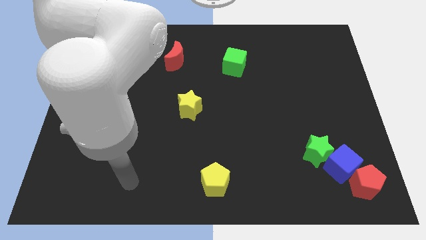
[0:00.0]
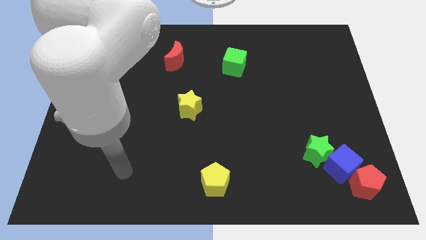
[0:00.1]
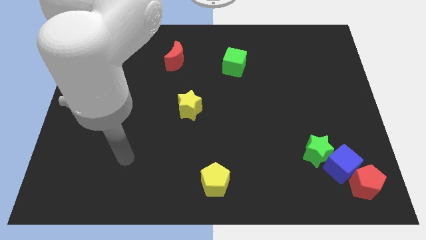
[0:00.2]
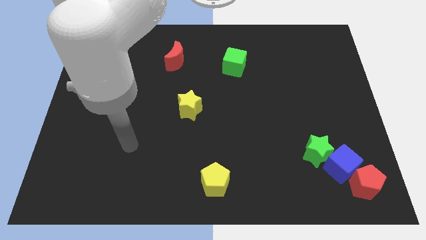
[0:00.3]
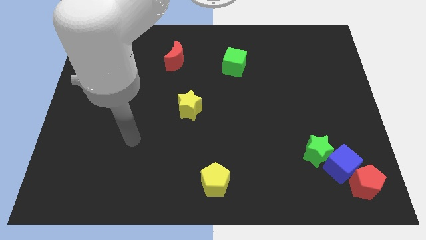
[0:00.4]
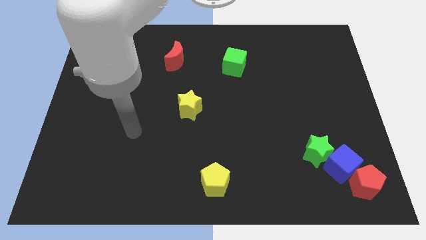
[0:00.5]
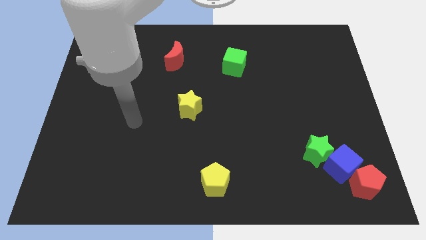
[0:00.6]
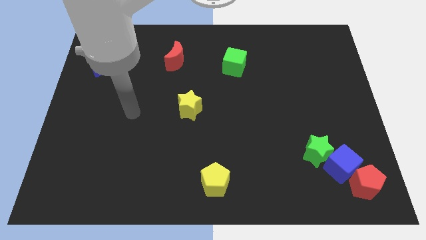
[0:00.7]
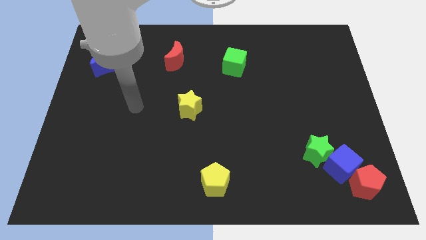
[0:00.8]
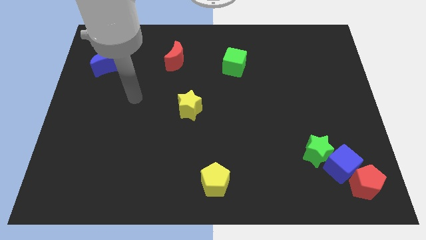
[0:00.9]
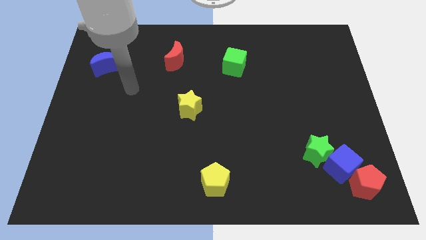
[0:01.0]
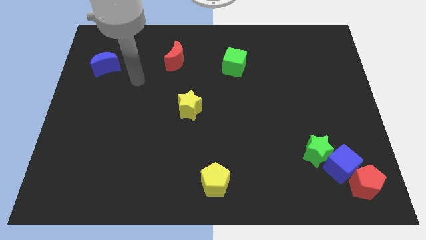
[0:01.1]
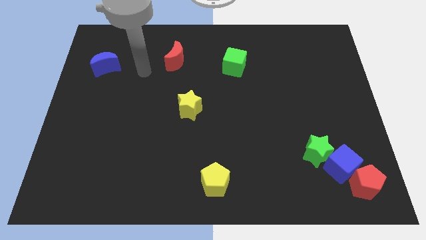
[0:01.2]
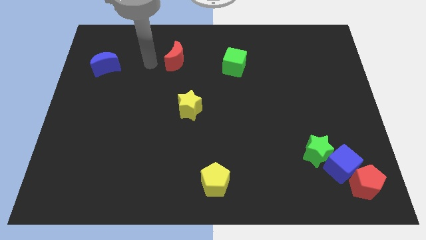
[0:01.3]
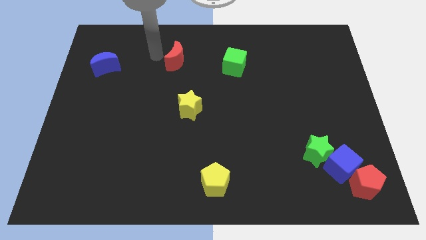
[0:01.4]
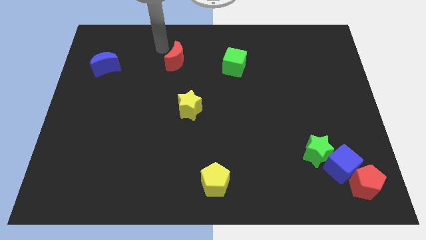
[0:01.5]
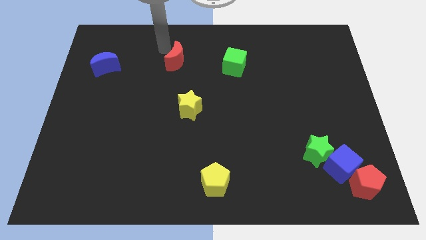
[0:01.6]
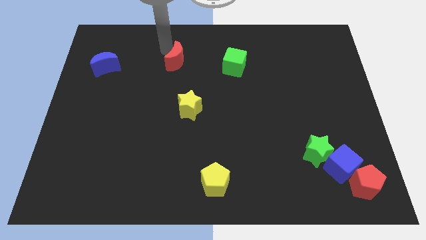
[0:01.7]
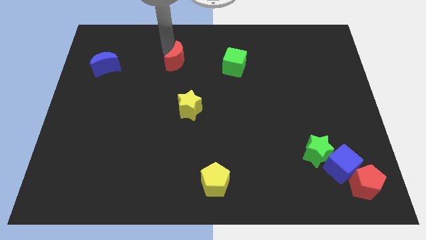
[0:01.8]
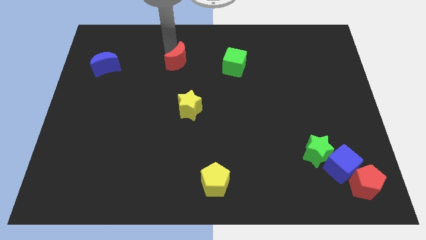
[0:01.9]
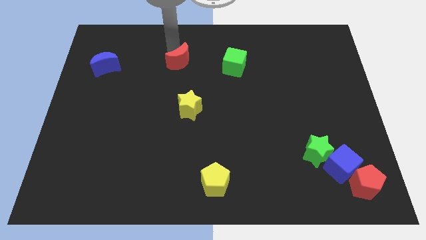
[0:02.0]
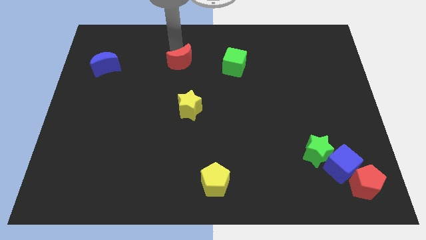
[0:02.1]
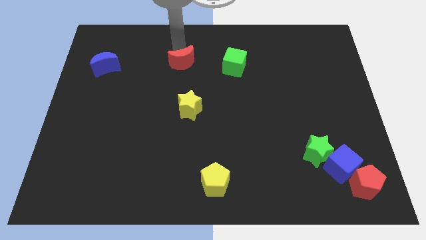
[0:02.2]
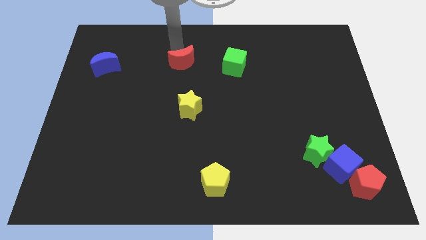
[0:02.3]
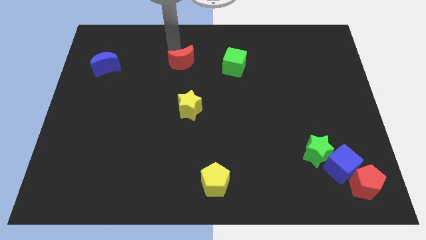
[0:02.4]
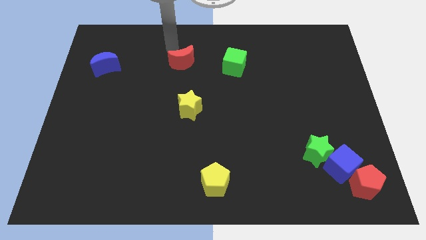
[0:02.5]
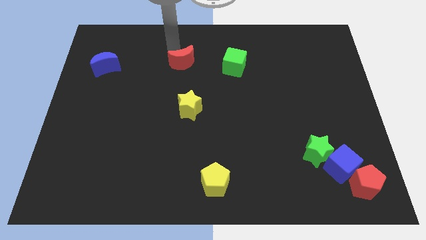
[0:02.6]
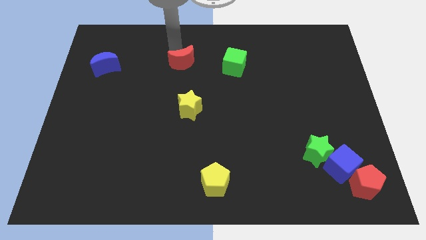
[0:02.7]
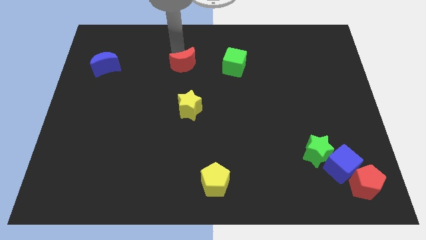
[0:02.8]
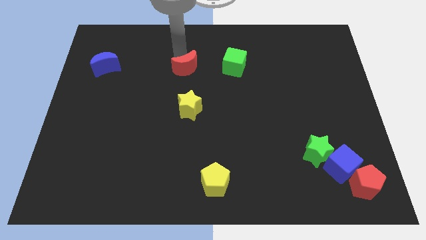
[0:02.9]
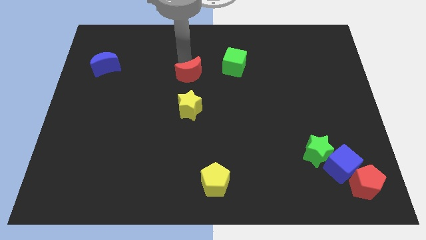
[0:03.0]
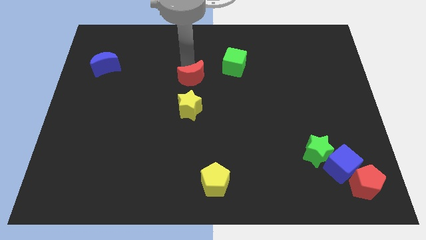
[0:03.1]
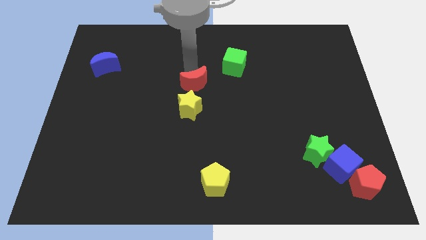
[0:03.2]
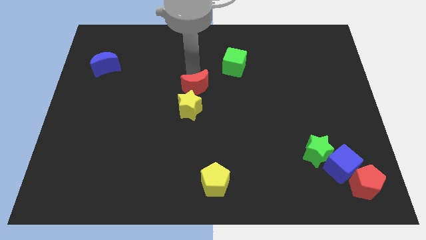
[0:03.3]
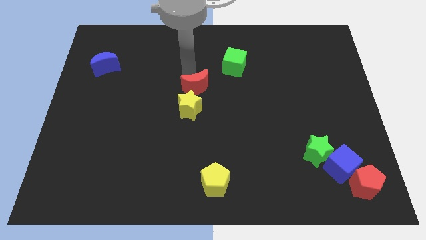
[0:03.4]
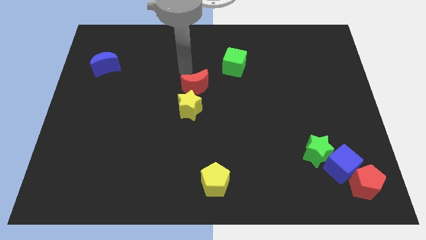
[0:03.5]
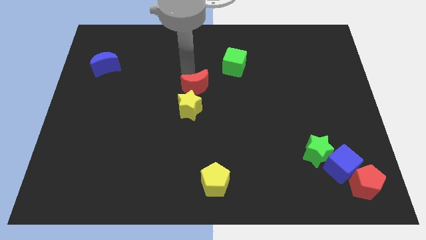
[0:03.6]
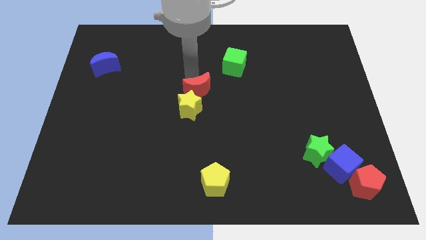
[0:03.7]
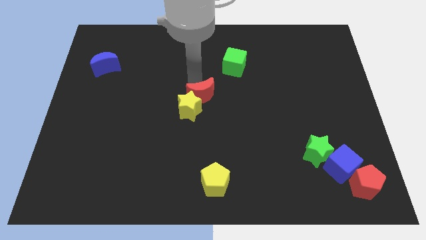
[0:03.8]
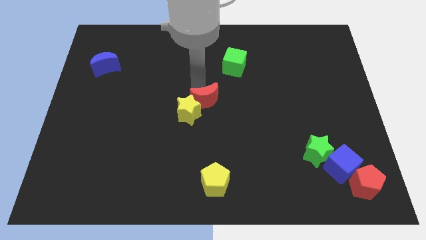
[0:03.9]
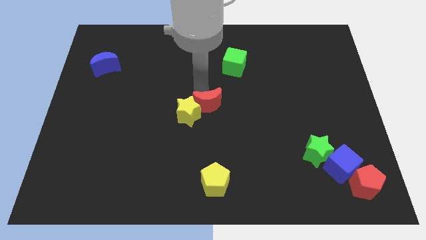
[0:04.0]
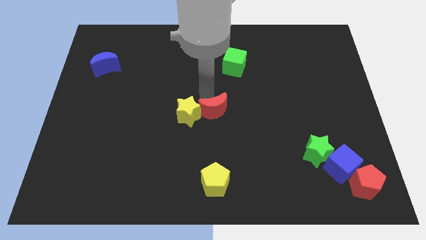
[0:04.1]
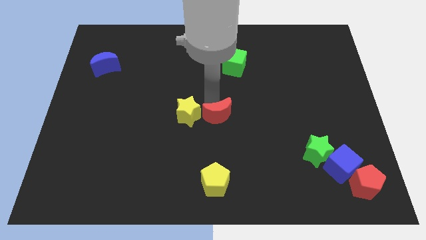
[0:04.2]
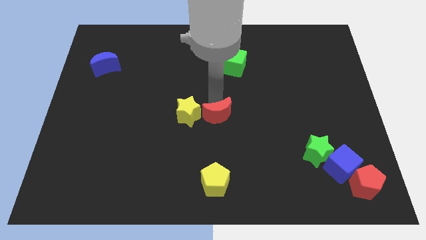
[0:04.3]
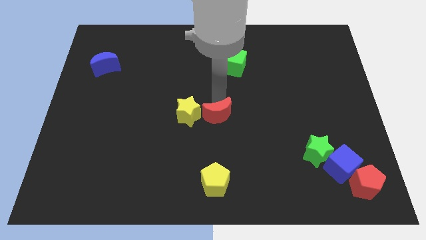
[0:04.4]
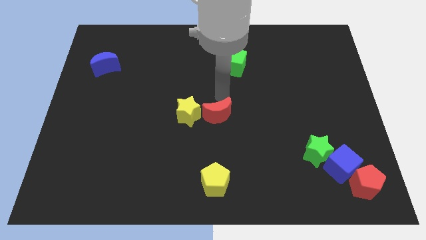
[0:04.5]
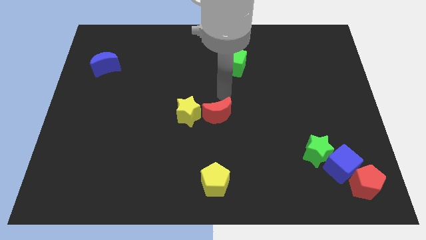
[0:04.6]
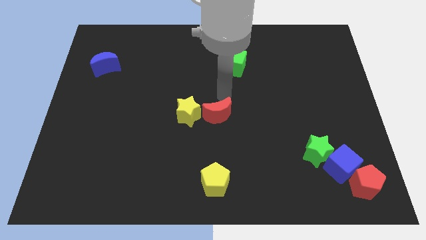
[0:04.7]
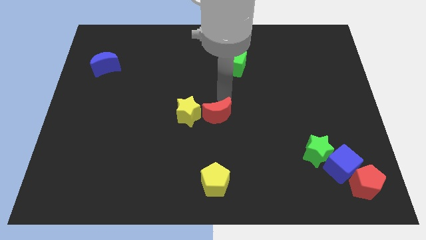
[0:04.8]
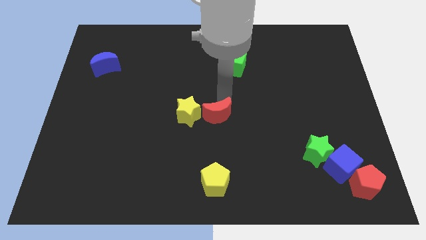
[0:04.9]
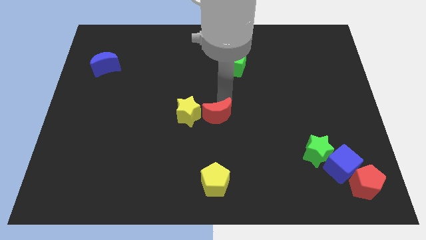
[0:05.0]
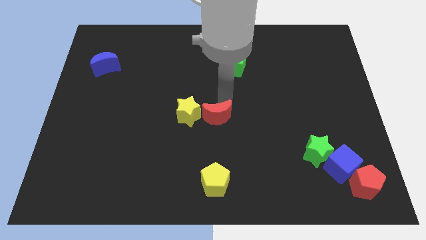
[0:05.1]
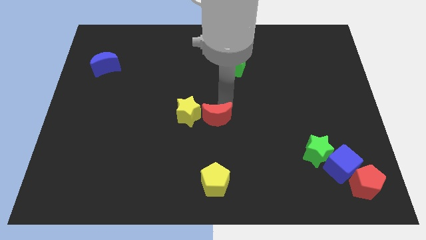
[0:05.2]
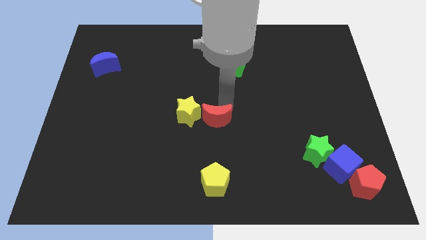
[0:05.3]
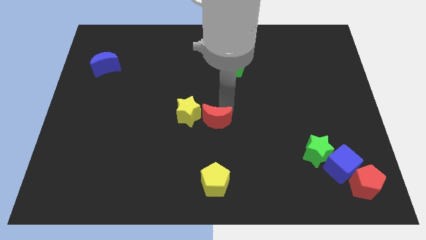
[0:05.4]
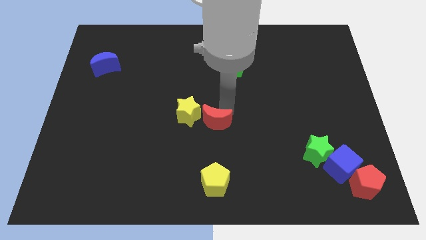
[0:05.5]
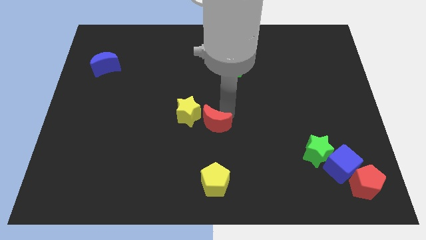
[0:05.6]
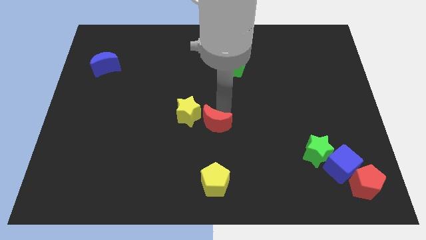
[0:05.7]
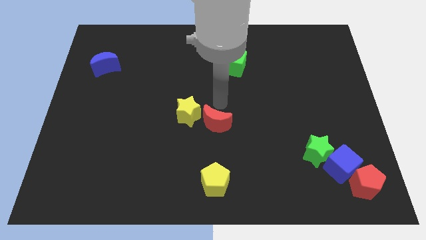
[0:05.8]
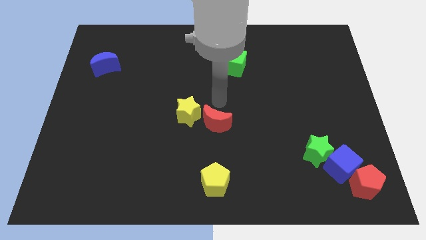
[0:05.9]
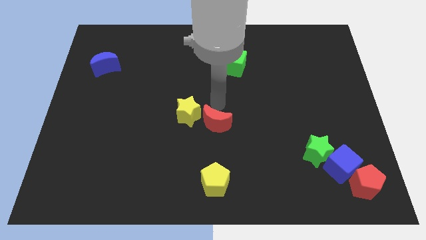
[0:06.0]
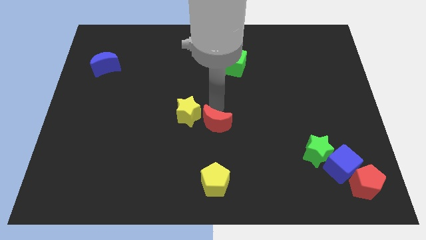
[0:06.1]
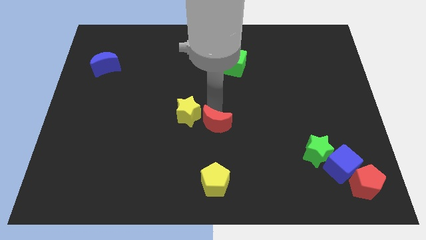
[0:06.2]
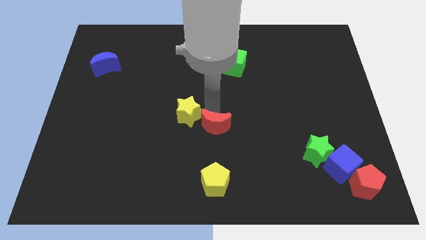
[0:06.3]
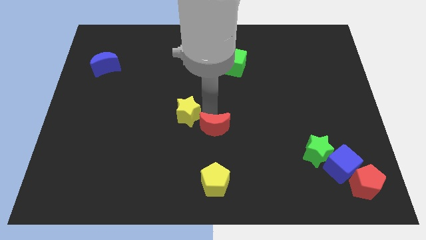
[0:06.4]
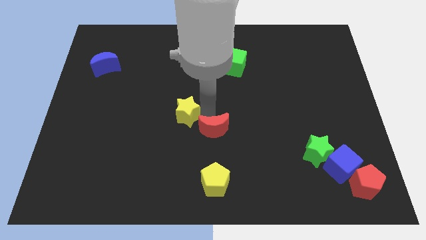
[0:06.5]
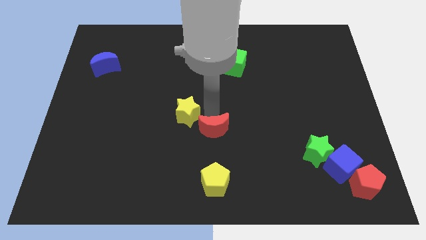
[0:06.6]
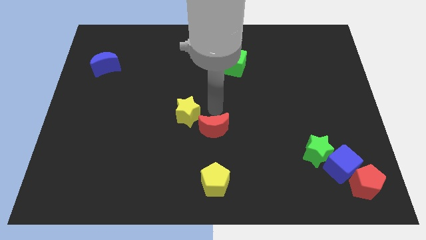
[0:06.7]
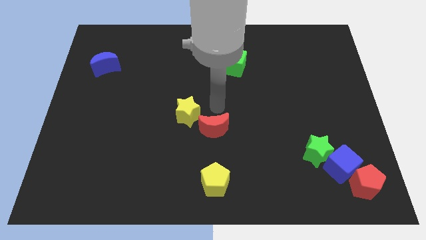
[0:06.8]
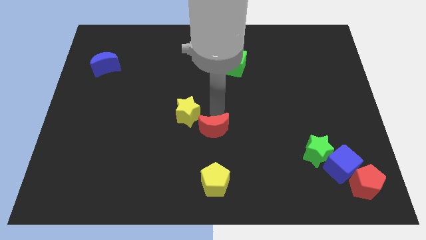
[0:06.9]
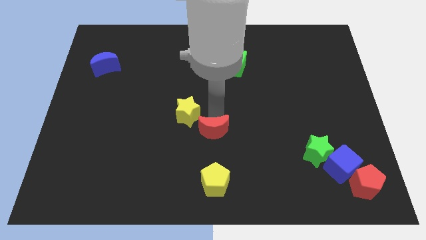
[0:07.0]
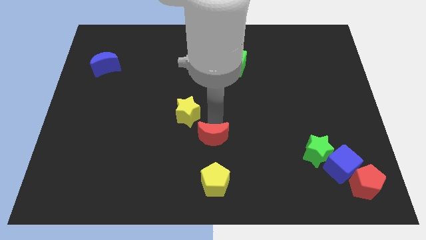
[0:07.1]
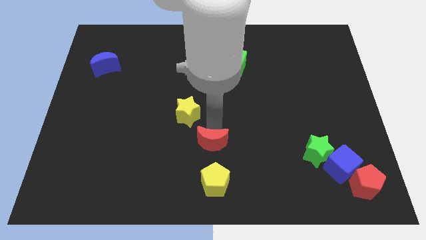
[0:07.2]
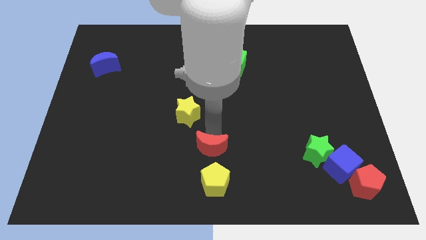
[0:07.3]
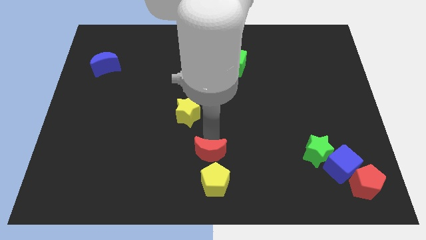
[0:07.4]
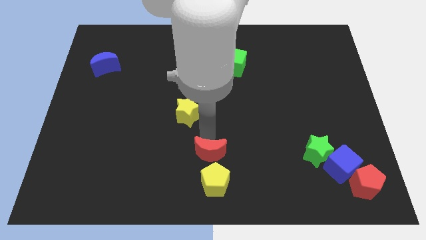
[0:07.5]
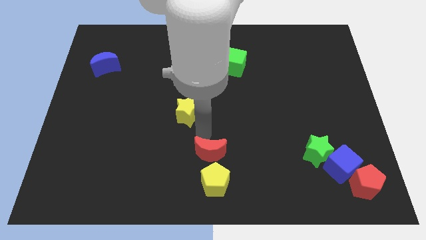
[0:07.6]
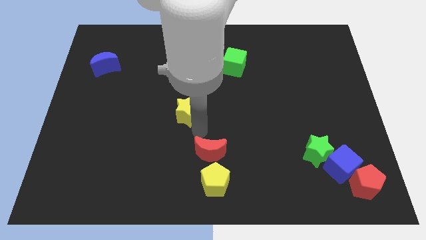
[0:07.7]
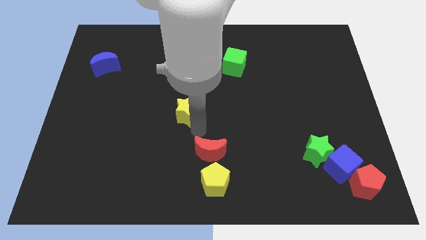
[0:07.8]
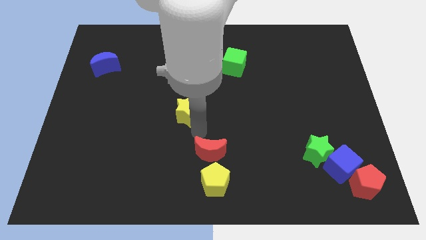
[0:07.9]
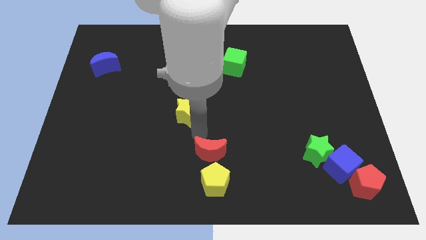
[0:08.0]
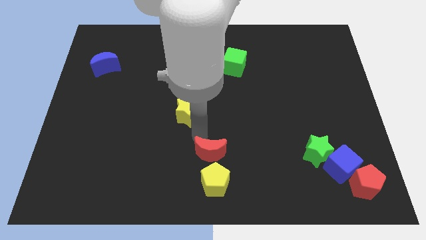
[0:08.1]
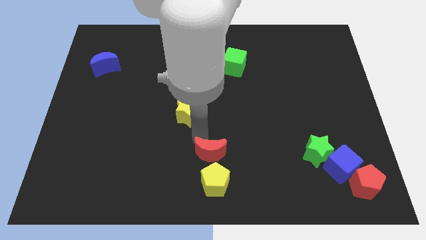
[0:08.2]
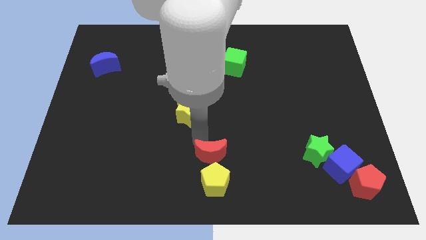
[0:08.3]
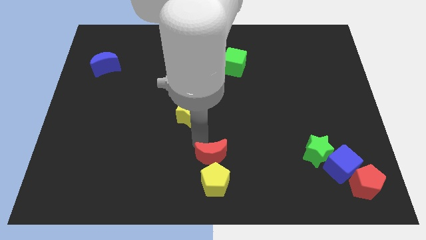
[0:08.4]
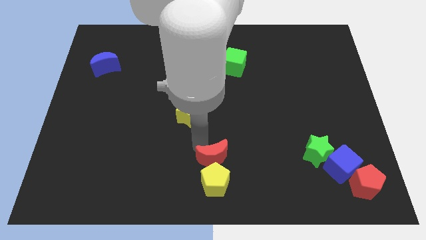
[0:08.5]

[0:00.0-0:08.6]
move the red moon next to the yellow pentagon
